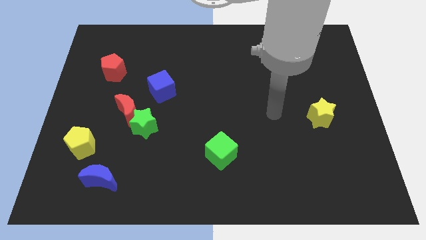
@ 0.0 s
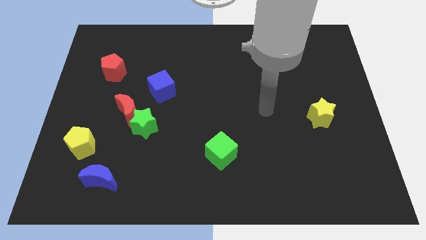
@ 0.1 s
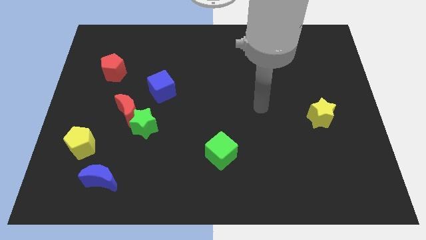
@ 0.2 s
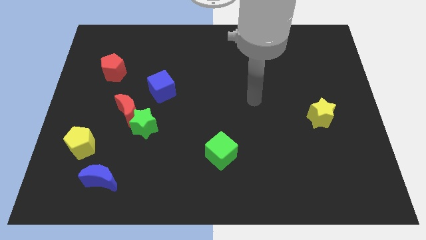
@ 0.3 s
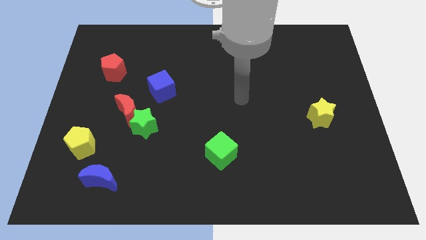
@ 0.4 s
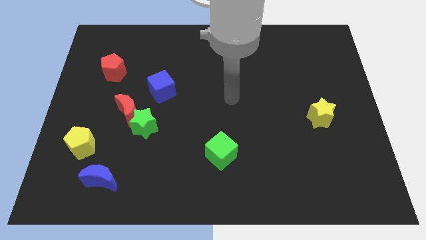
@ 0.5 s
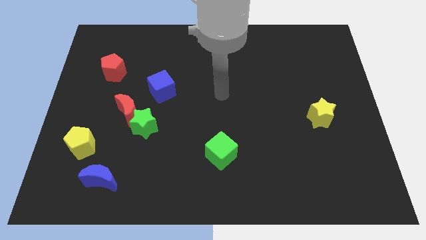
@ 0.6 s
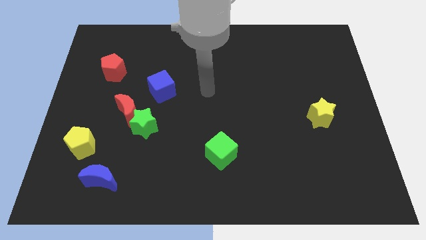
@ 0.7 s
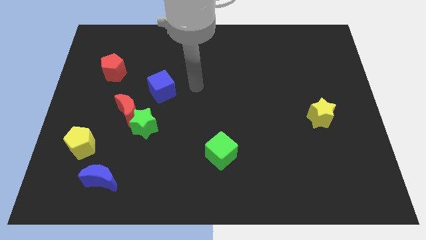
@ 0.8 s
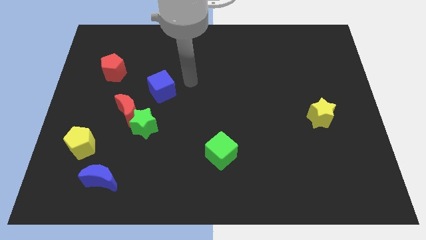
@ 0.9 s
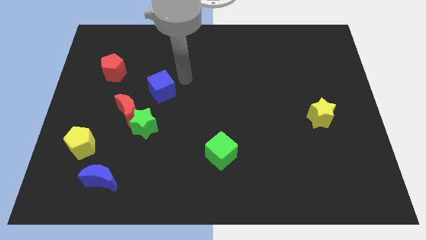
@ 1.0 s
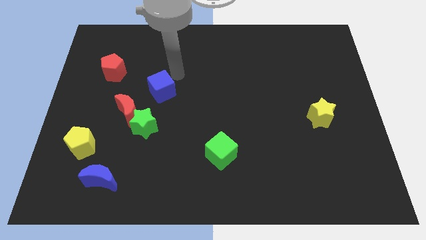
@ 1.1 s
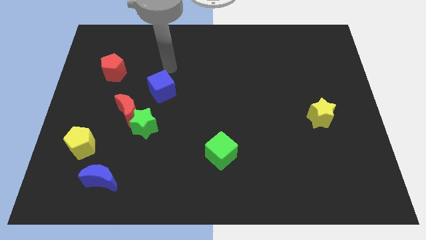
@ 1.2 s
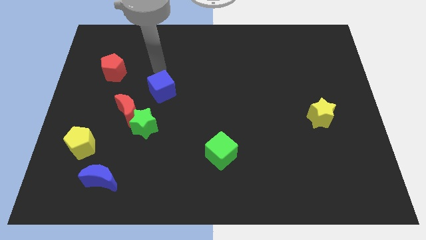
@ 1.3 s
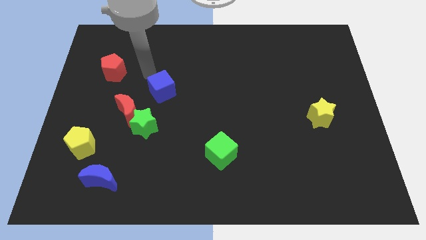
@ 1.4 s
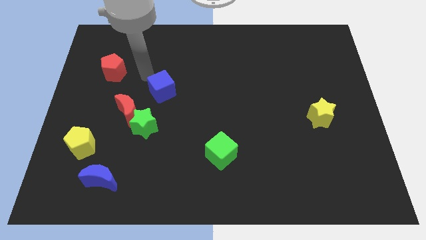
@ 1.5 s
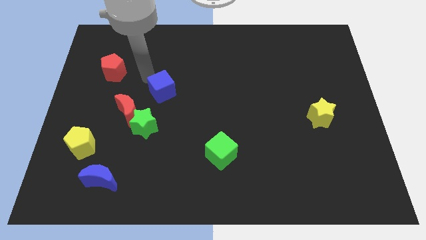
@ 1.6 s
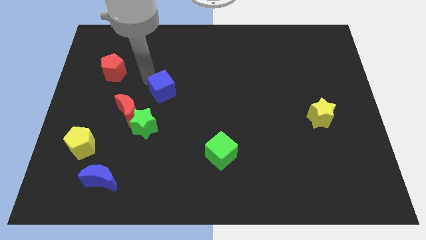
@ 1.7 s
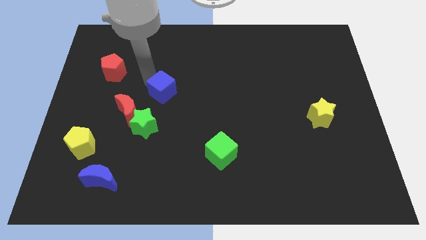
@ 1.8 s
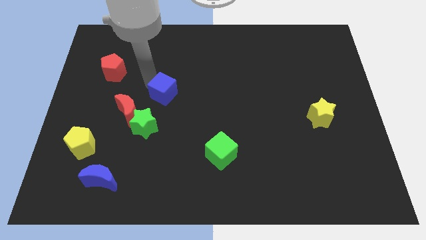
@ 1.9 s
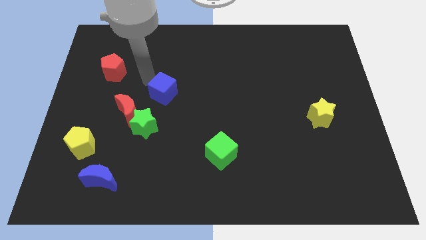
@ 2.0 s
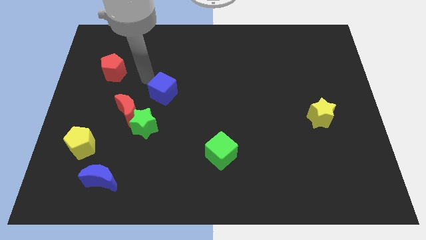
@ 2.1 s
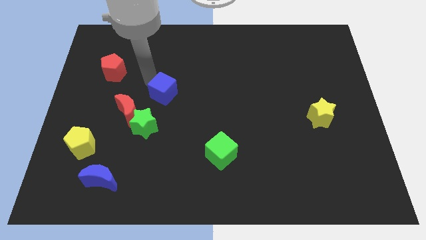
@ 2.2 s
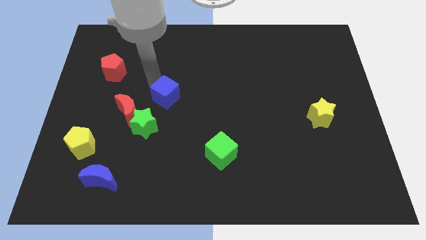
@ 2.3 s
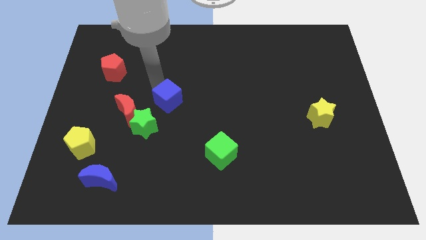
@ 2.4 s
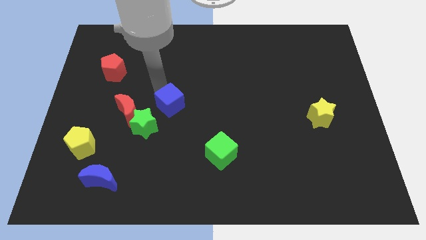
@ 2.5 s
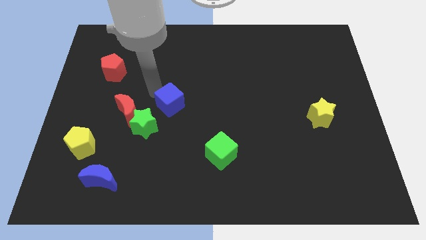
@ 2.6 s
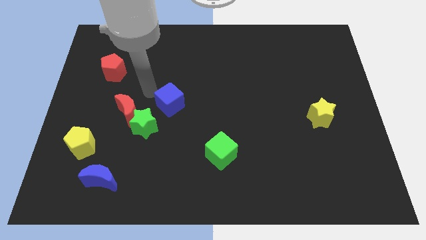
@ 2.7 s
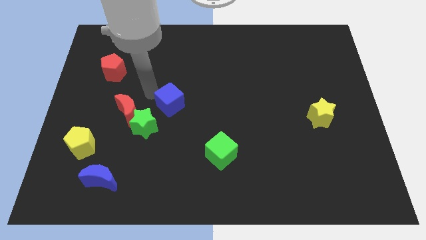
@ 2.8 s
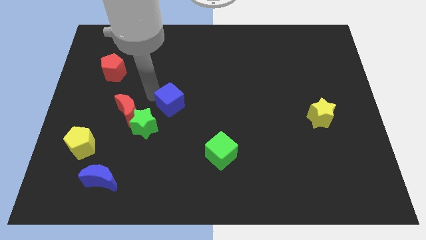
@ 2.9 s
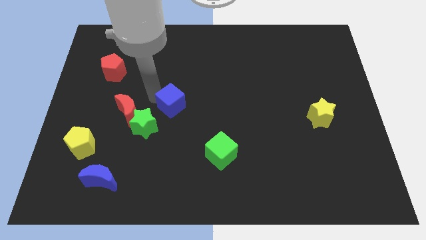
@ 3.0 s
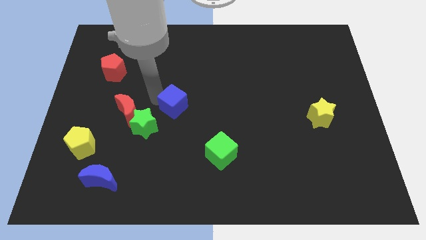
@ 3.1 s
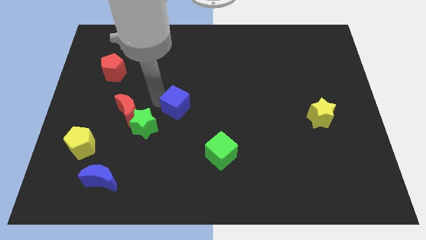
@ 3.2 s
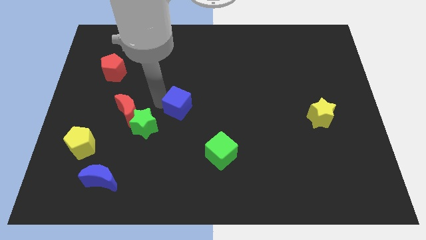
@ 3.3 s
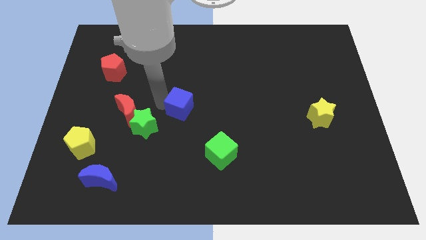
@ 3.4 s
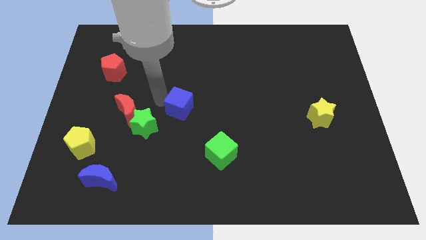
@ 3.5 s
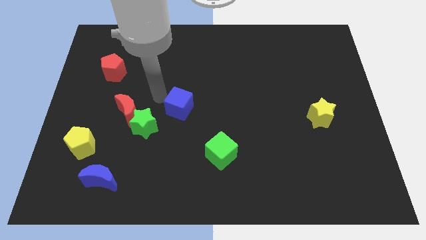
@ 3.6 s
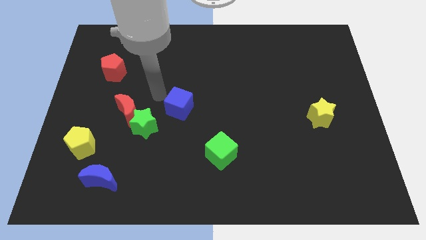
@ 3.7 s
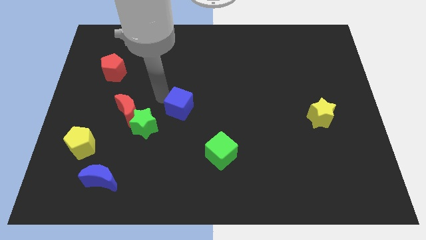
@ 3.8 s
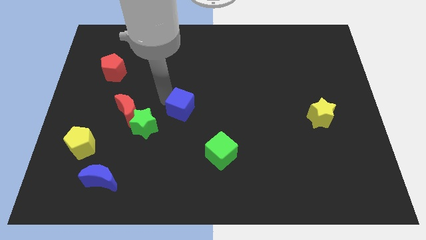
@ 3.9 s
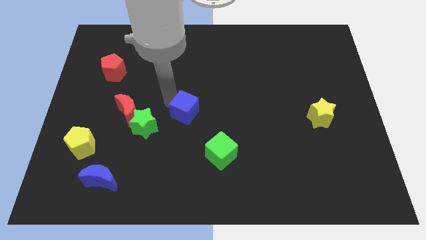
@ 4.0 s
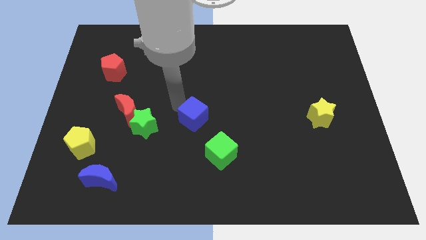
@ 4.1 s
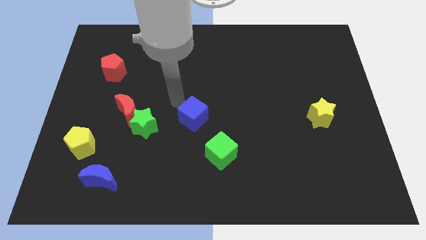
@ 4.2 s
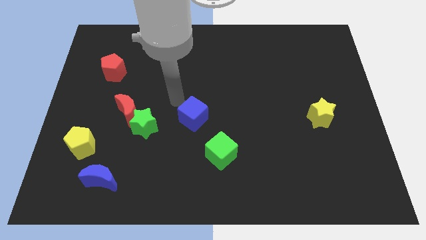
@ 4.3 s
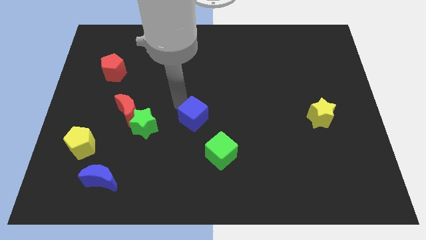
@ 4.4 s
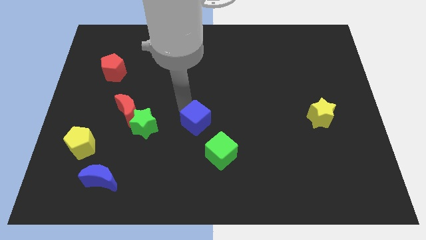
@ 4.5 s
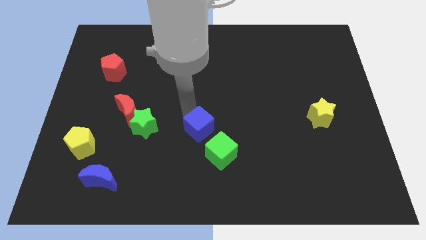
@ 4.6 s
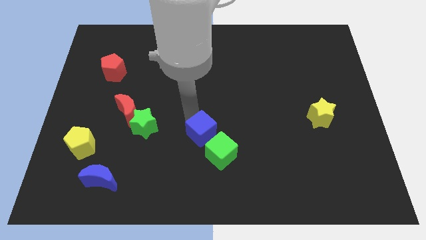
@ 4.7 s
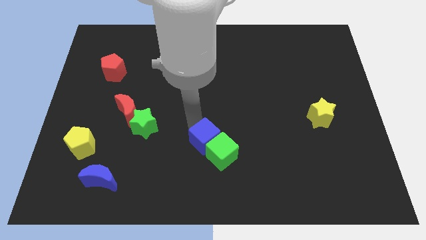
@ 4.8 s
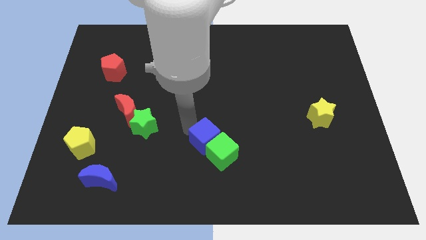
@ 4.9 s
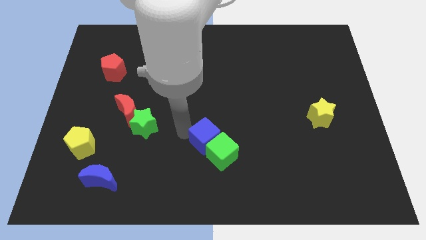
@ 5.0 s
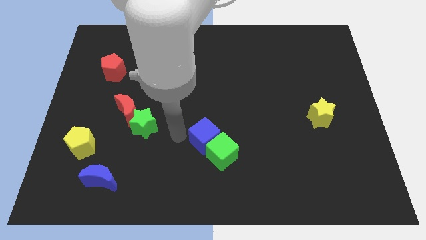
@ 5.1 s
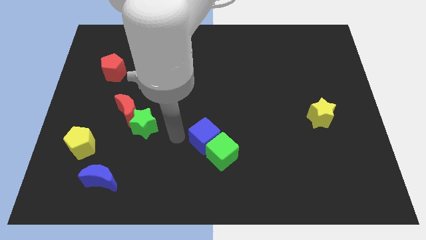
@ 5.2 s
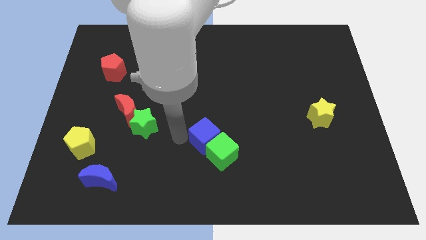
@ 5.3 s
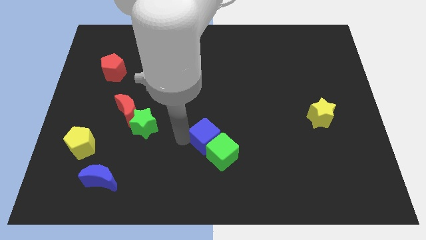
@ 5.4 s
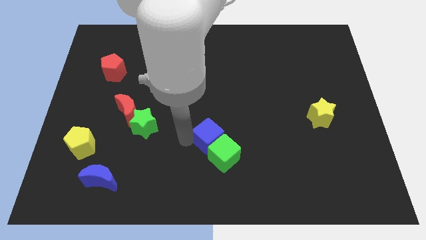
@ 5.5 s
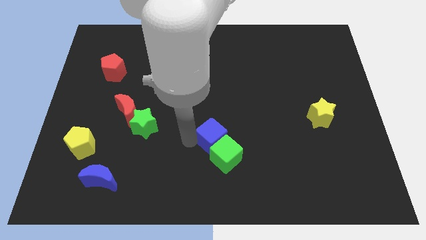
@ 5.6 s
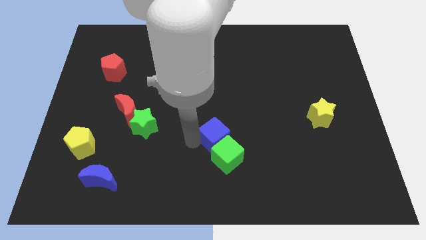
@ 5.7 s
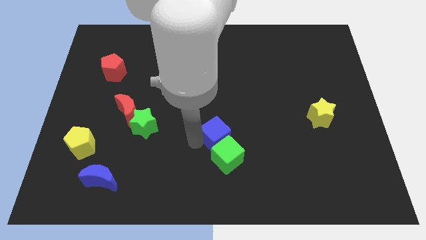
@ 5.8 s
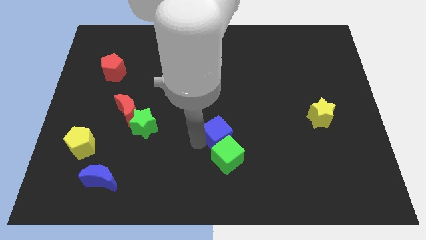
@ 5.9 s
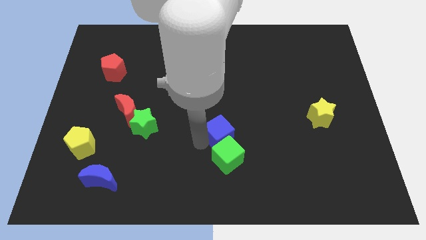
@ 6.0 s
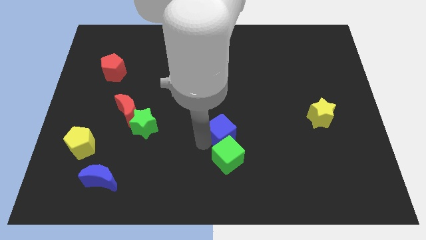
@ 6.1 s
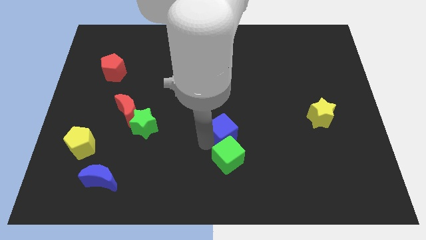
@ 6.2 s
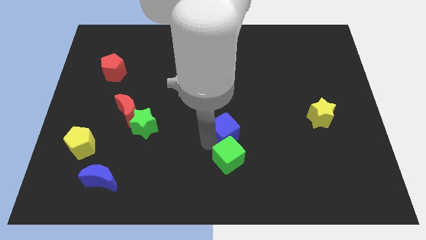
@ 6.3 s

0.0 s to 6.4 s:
move the blue cube downwards and then to the right

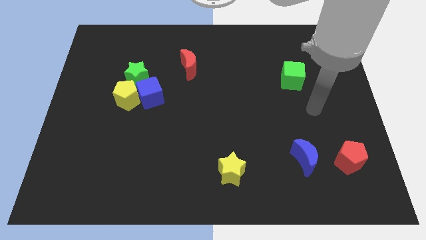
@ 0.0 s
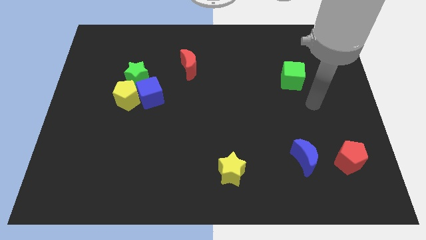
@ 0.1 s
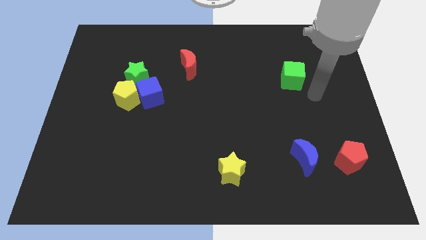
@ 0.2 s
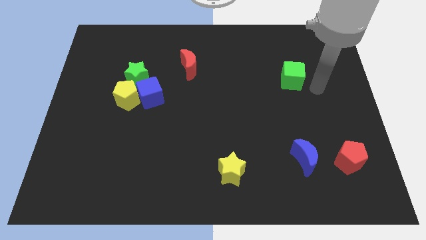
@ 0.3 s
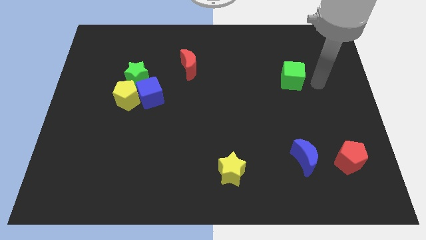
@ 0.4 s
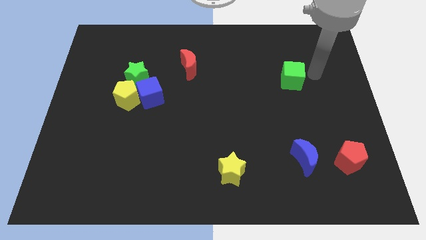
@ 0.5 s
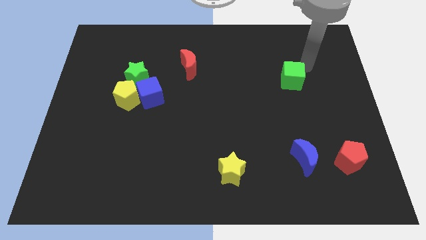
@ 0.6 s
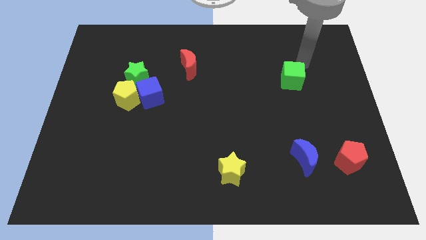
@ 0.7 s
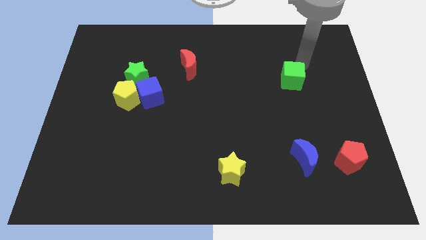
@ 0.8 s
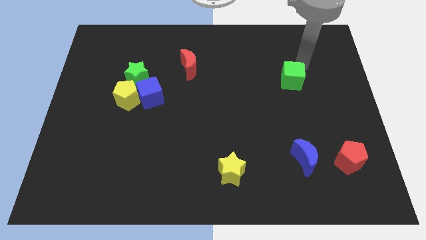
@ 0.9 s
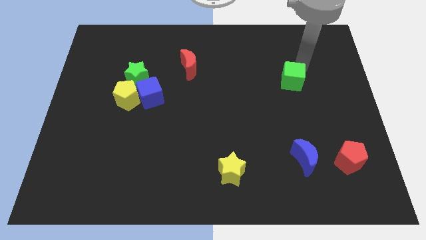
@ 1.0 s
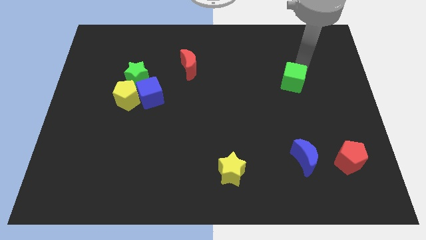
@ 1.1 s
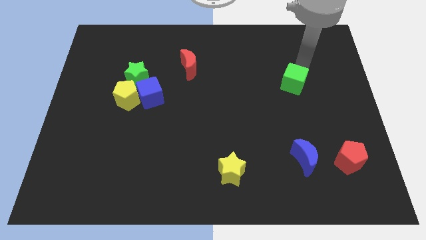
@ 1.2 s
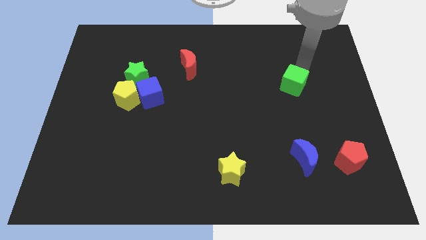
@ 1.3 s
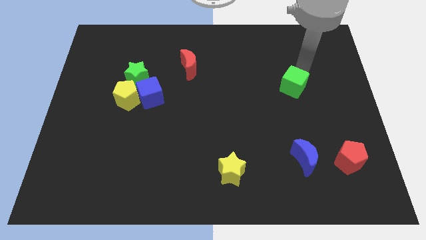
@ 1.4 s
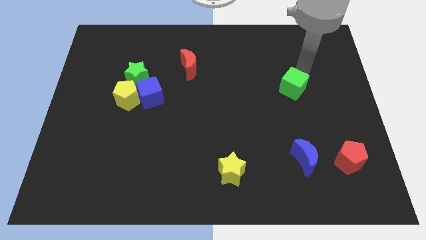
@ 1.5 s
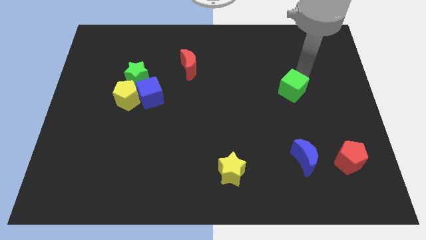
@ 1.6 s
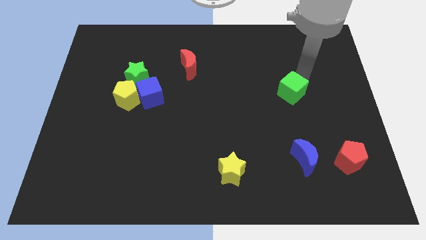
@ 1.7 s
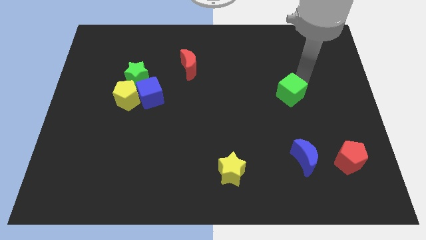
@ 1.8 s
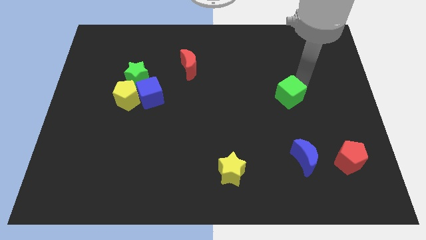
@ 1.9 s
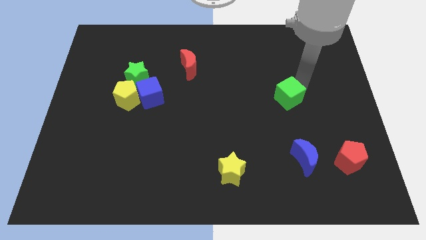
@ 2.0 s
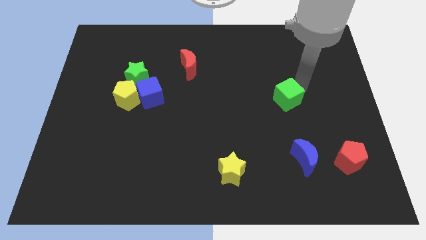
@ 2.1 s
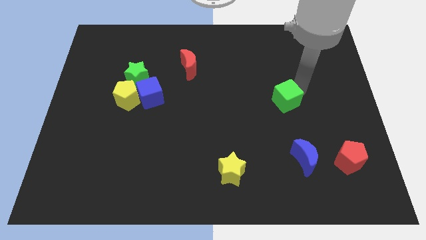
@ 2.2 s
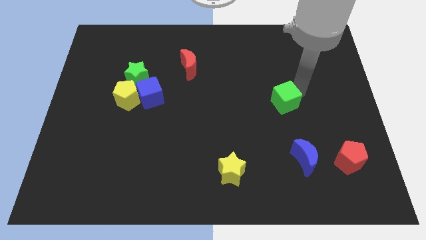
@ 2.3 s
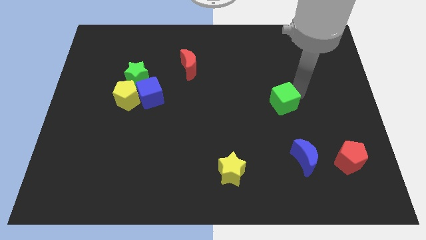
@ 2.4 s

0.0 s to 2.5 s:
slide the green cube somewhat downwards and to the left
